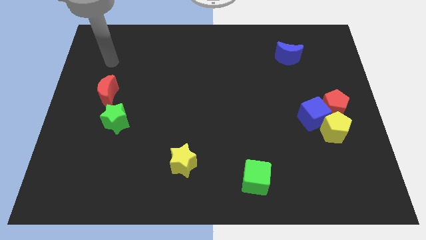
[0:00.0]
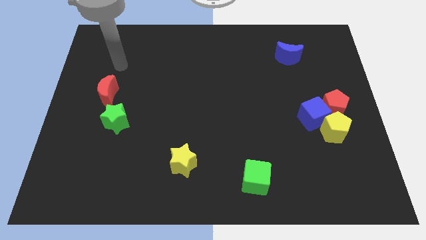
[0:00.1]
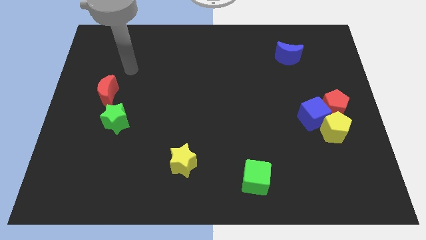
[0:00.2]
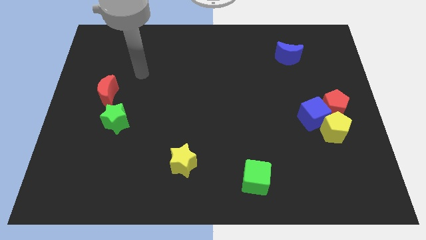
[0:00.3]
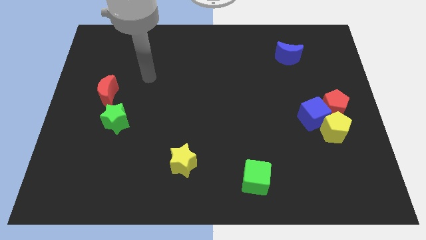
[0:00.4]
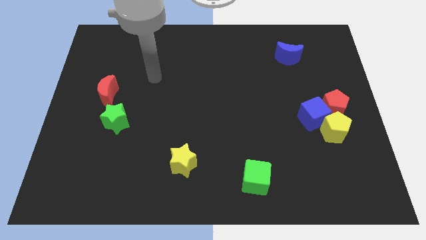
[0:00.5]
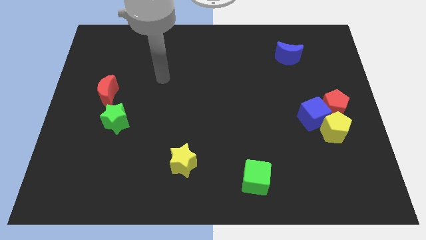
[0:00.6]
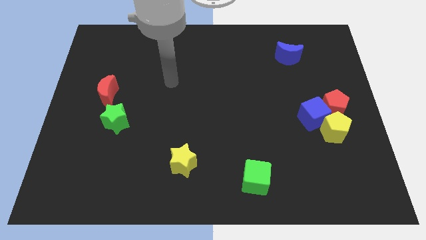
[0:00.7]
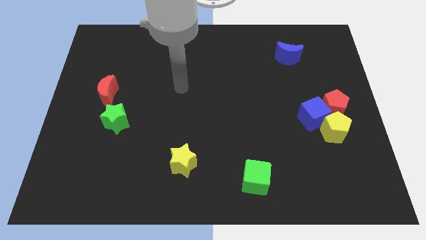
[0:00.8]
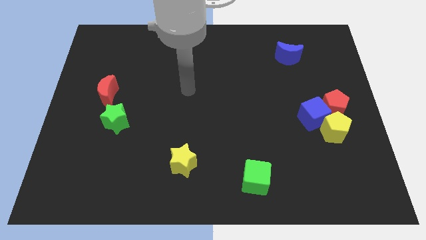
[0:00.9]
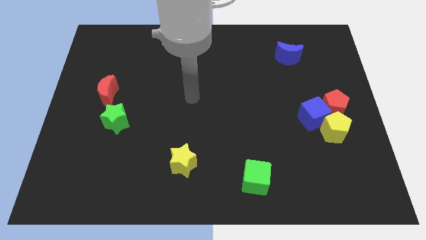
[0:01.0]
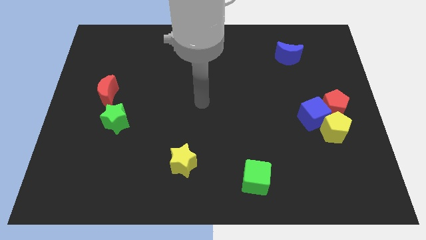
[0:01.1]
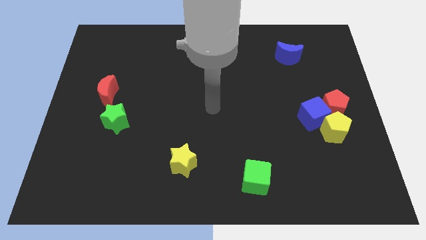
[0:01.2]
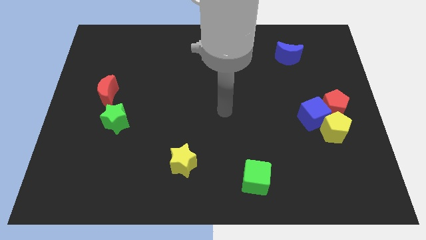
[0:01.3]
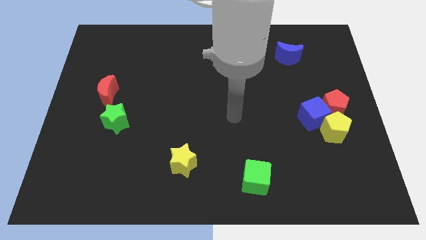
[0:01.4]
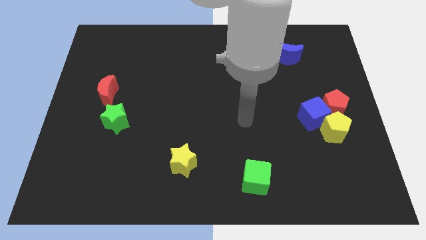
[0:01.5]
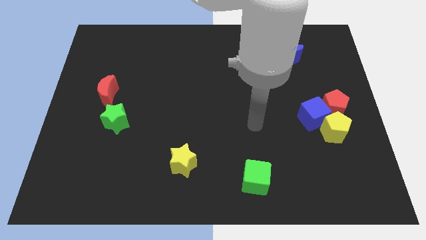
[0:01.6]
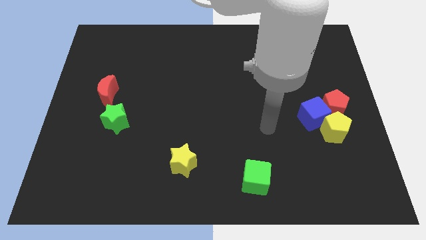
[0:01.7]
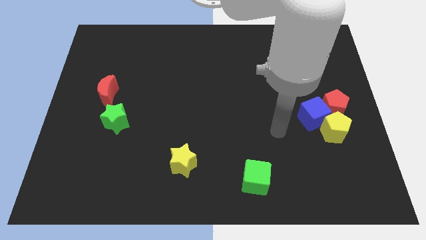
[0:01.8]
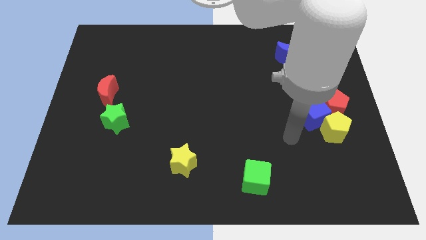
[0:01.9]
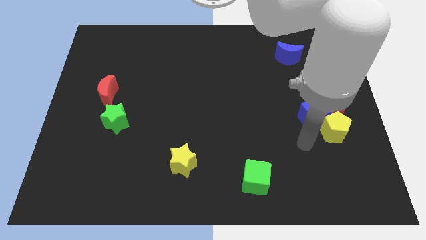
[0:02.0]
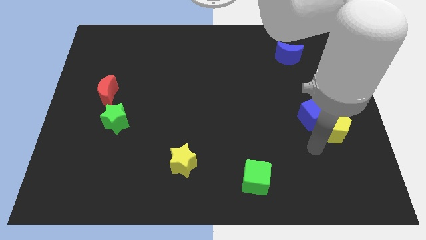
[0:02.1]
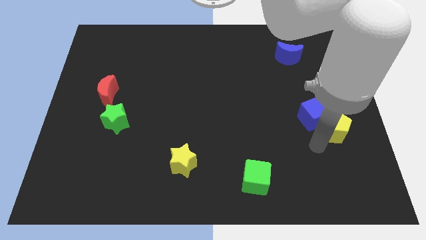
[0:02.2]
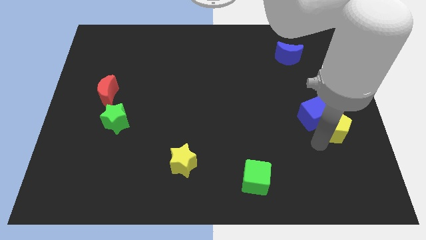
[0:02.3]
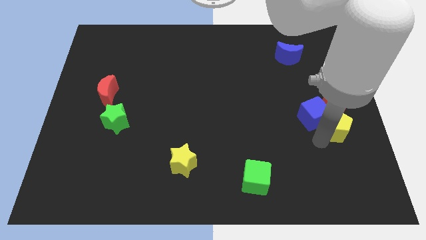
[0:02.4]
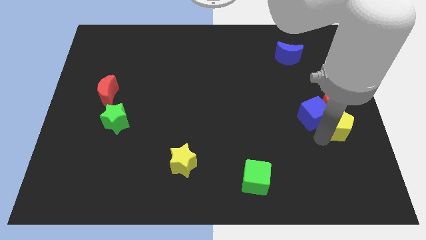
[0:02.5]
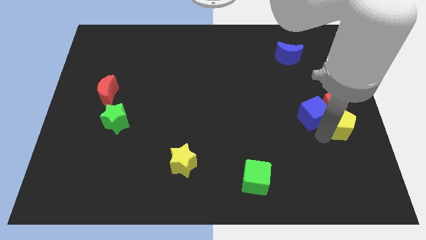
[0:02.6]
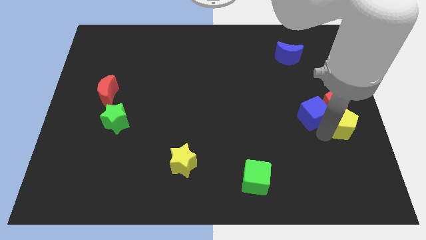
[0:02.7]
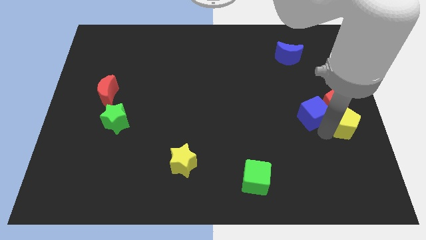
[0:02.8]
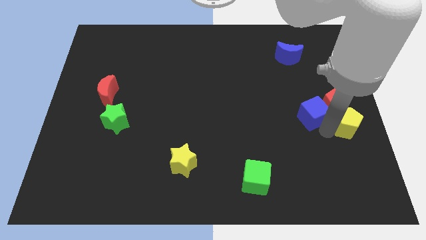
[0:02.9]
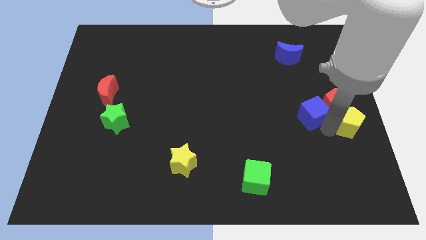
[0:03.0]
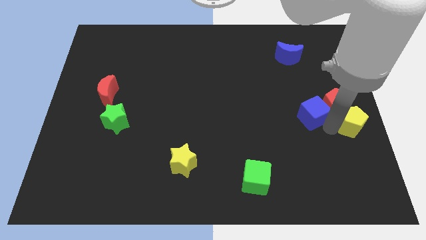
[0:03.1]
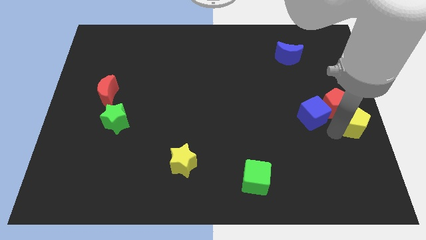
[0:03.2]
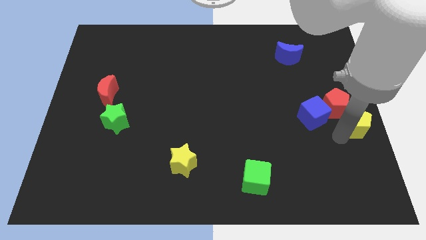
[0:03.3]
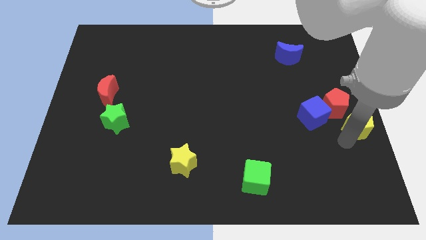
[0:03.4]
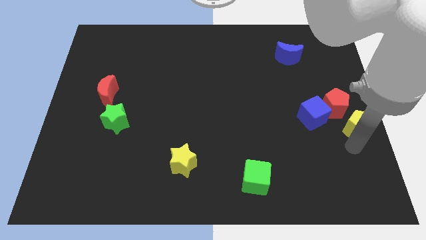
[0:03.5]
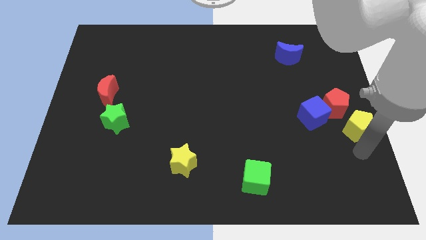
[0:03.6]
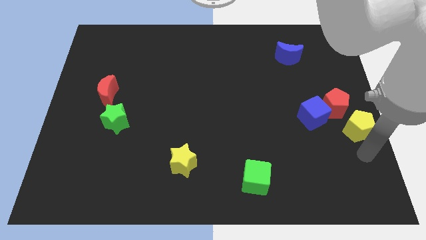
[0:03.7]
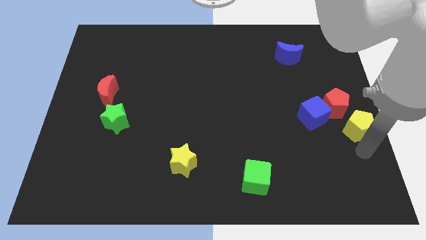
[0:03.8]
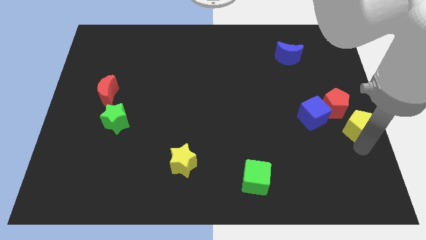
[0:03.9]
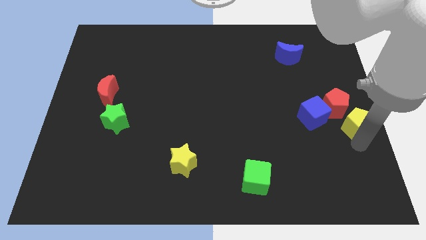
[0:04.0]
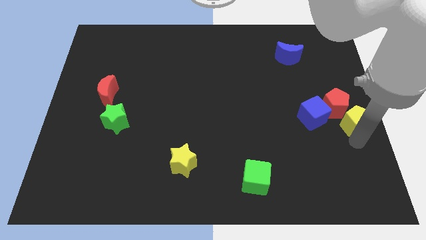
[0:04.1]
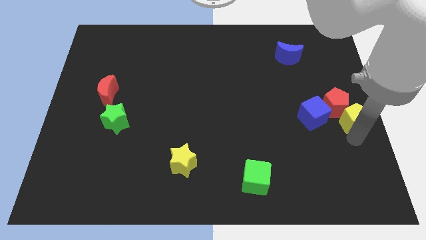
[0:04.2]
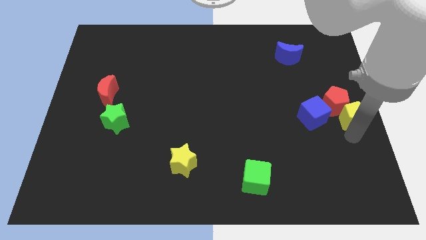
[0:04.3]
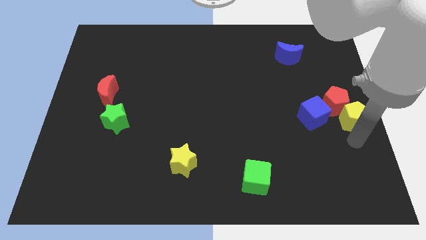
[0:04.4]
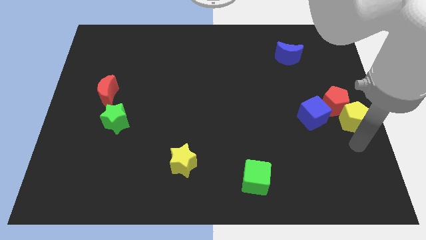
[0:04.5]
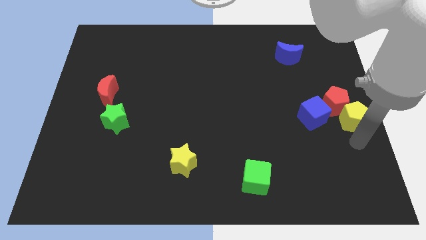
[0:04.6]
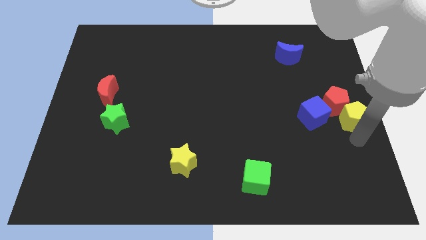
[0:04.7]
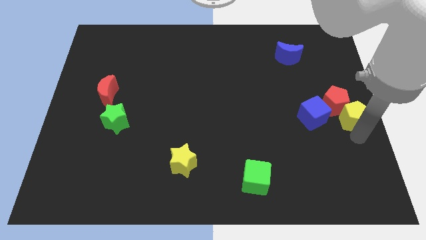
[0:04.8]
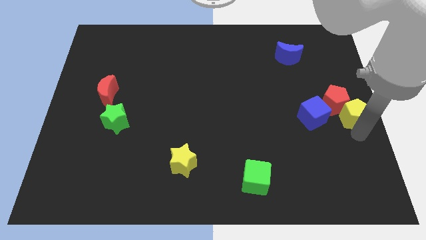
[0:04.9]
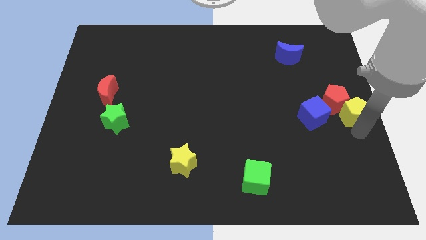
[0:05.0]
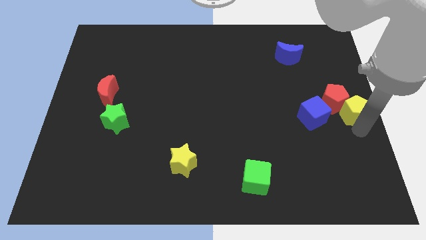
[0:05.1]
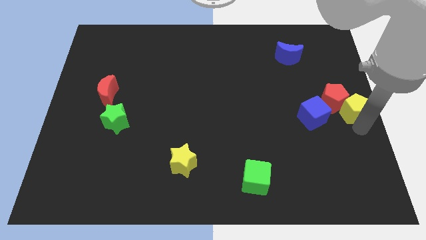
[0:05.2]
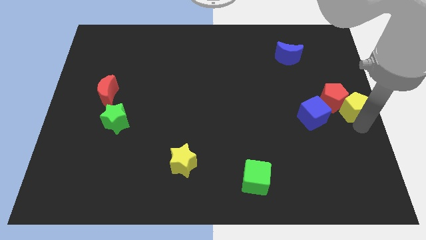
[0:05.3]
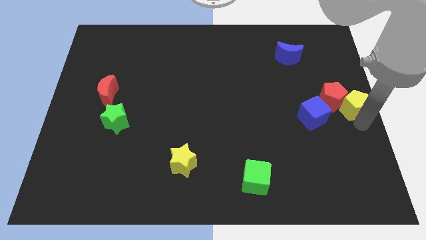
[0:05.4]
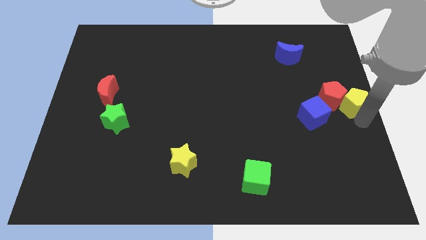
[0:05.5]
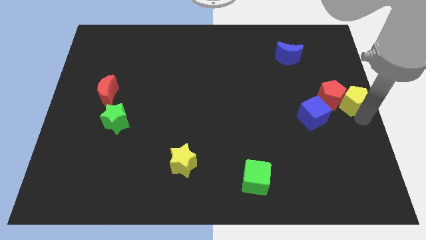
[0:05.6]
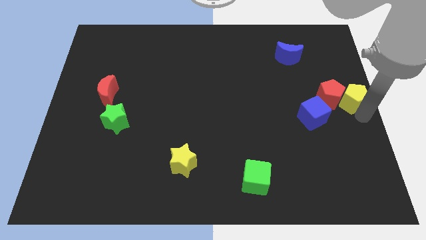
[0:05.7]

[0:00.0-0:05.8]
slightly move the yellow pentagon upwards

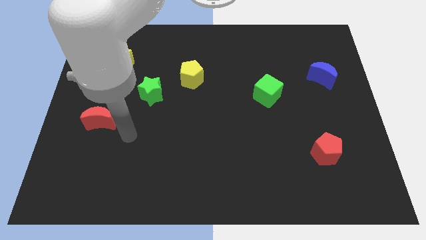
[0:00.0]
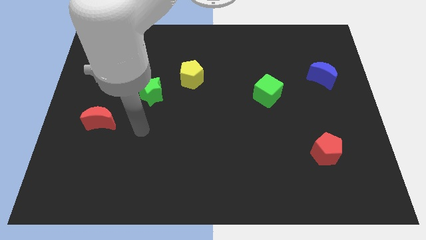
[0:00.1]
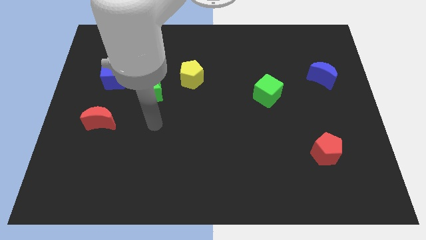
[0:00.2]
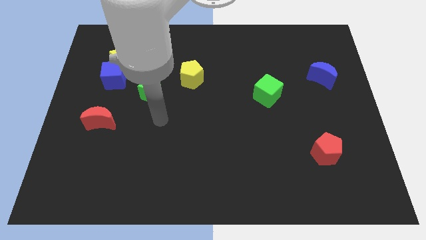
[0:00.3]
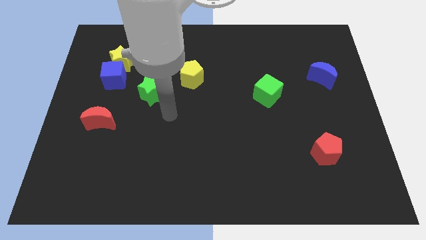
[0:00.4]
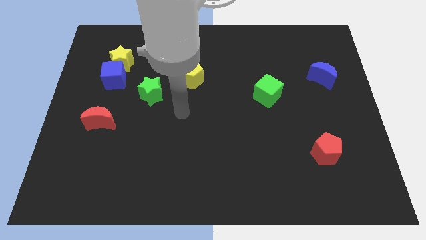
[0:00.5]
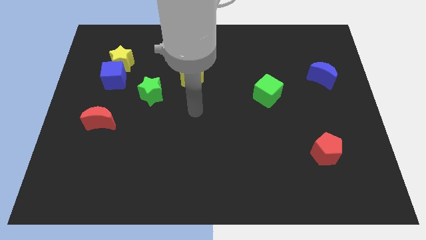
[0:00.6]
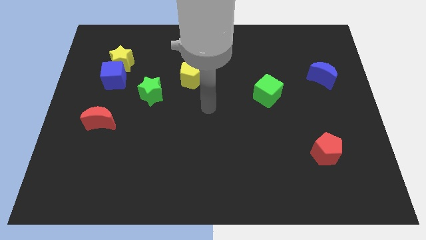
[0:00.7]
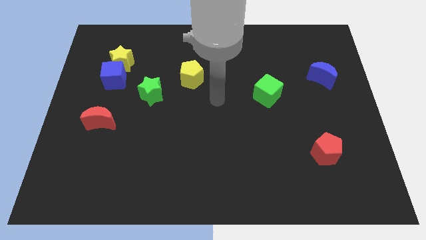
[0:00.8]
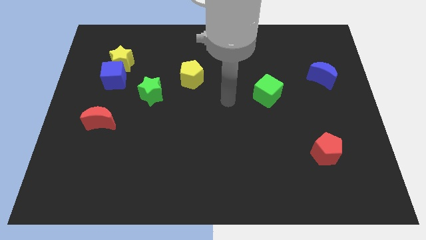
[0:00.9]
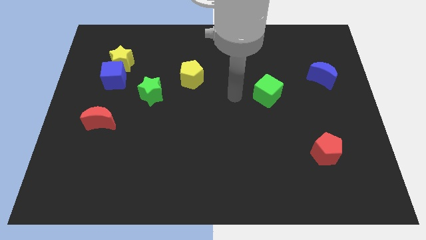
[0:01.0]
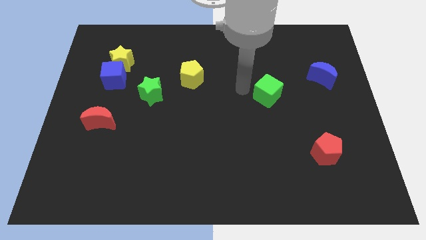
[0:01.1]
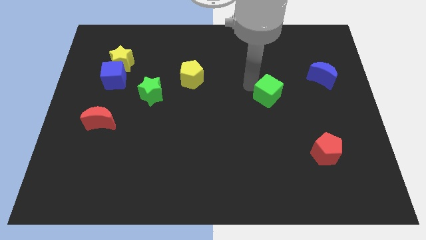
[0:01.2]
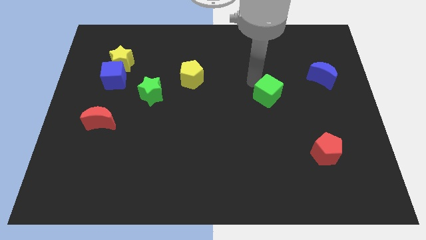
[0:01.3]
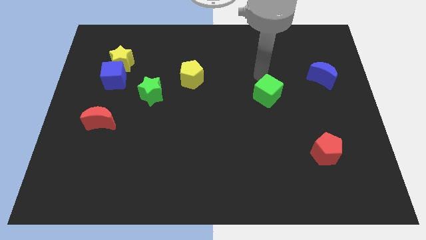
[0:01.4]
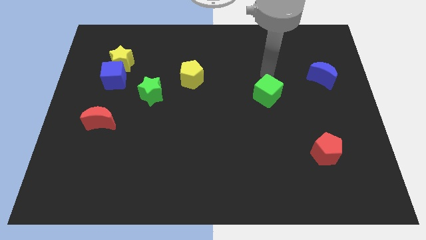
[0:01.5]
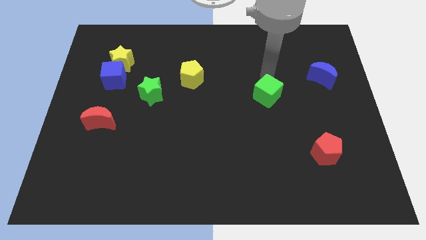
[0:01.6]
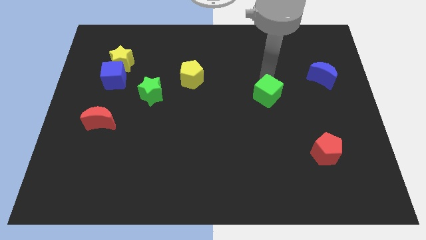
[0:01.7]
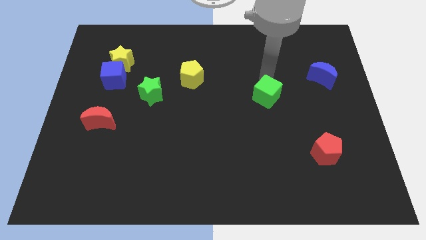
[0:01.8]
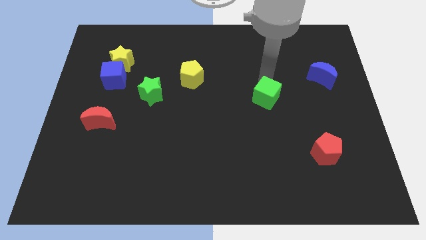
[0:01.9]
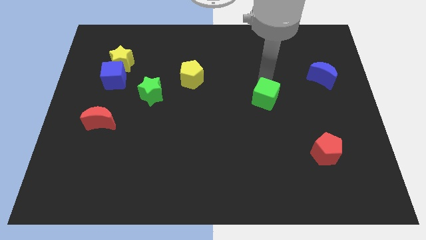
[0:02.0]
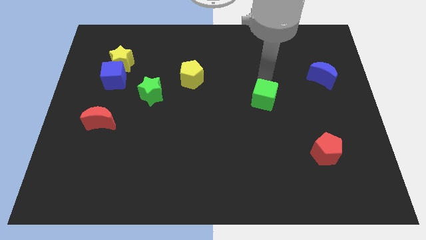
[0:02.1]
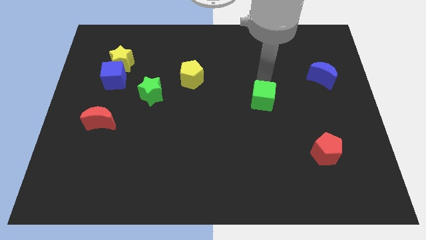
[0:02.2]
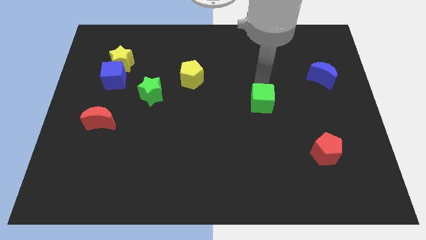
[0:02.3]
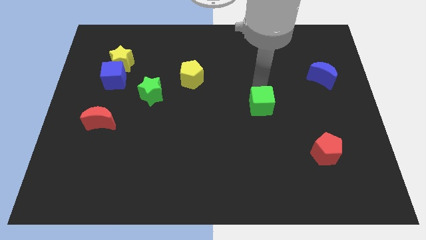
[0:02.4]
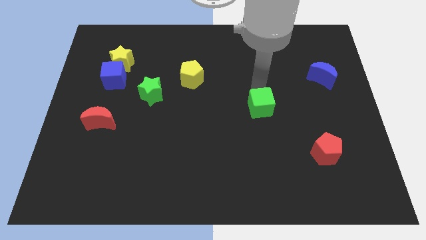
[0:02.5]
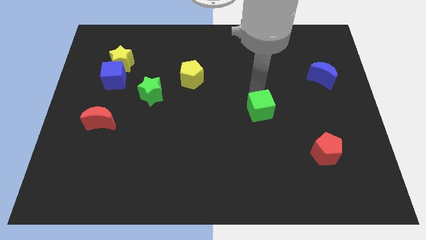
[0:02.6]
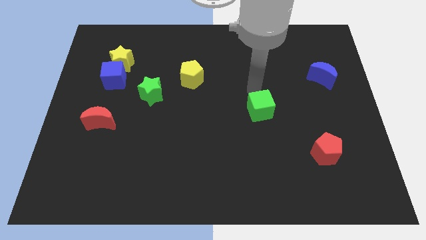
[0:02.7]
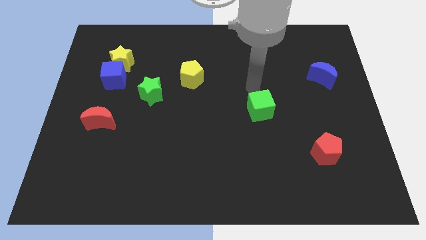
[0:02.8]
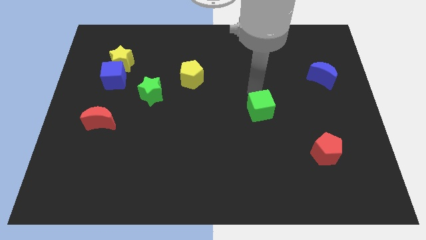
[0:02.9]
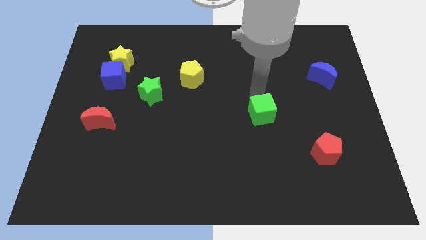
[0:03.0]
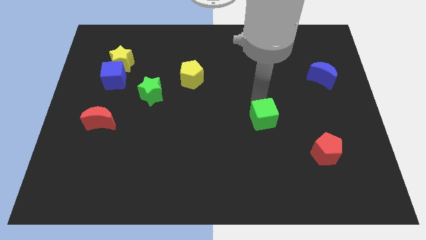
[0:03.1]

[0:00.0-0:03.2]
move the green cube down slightly
